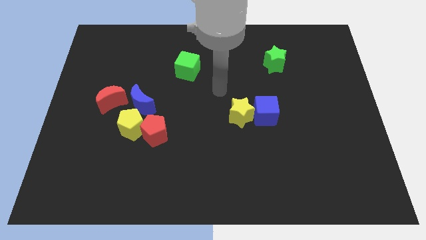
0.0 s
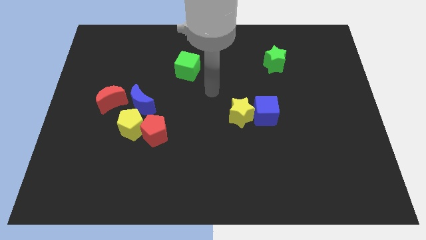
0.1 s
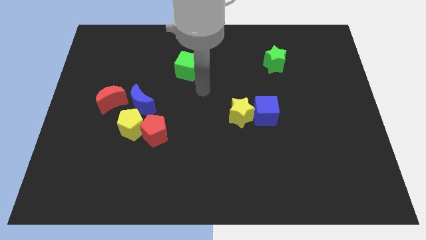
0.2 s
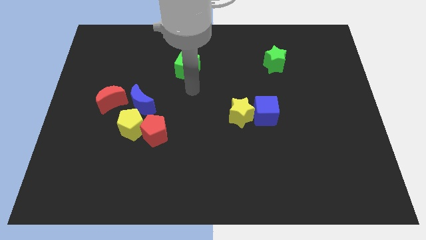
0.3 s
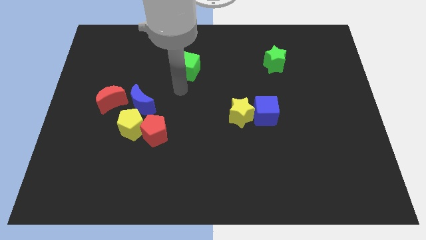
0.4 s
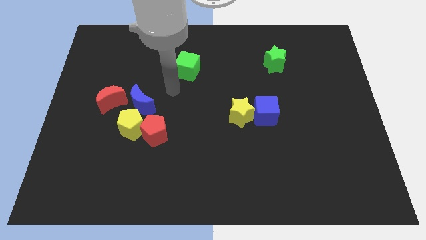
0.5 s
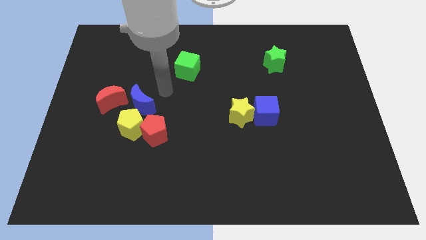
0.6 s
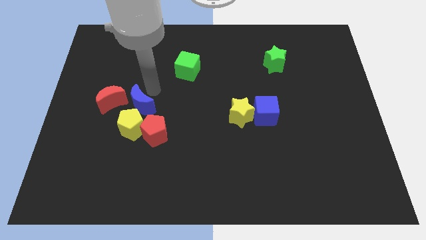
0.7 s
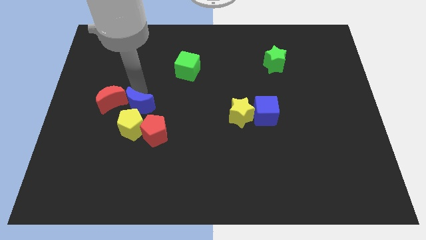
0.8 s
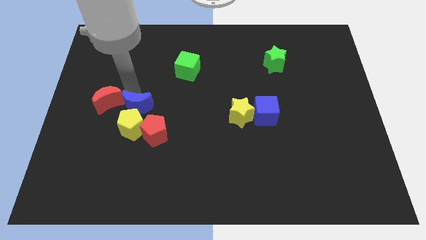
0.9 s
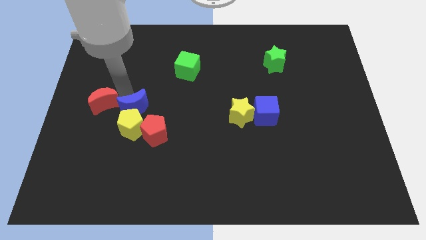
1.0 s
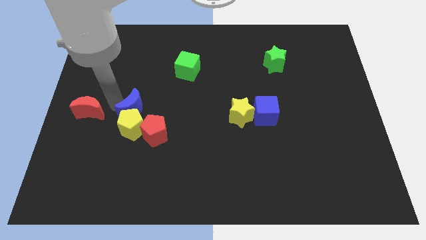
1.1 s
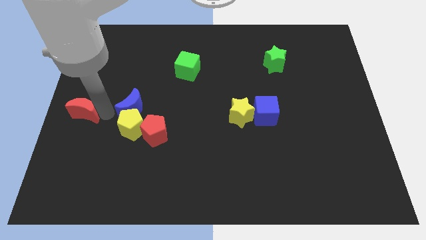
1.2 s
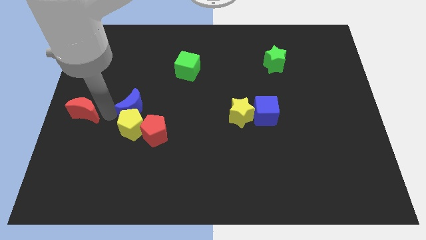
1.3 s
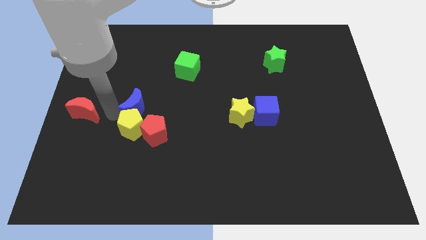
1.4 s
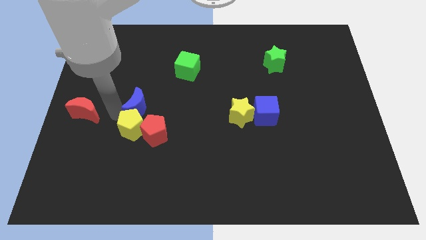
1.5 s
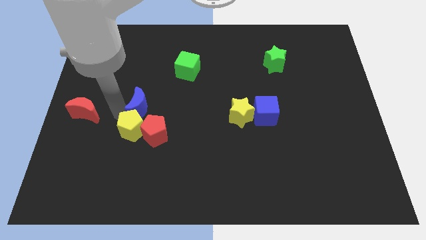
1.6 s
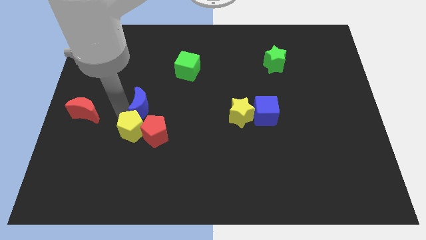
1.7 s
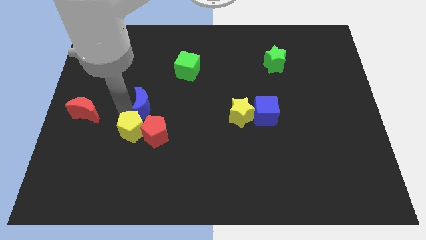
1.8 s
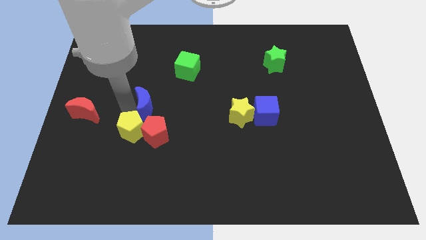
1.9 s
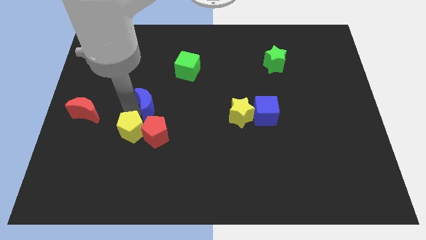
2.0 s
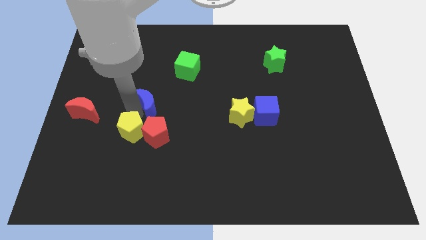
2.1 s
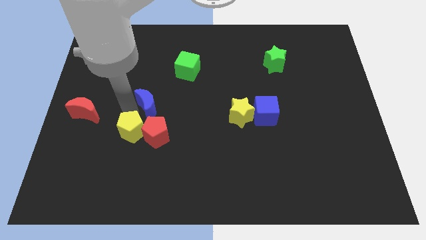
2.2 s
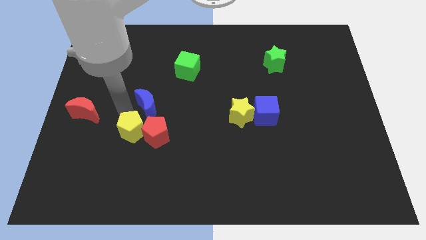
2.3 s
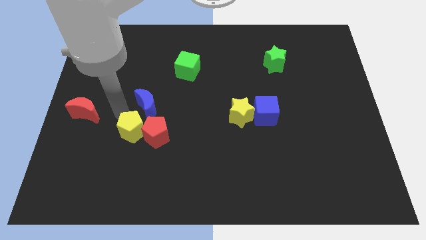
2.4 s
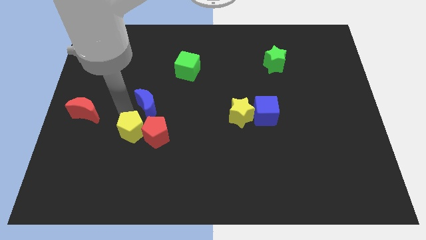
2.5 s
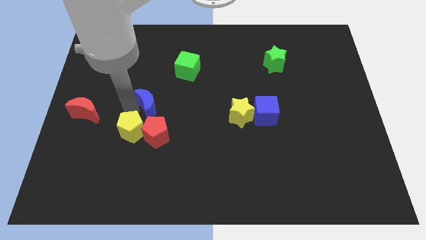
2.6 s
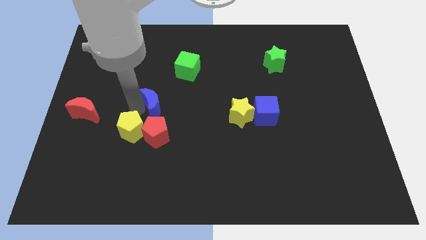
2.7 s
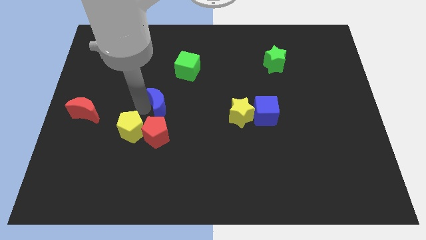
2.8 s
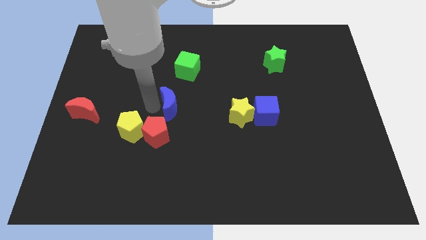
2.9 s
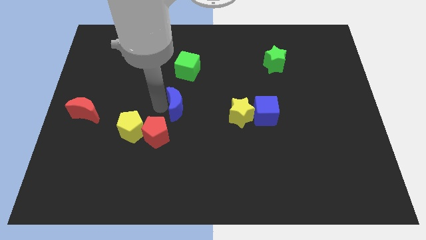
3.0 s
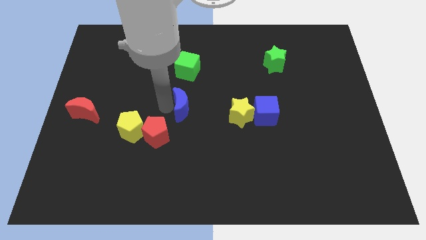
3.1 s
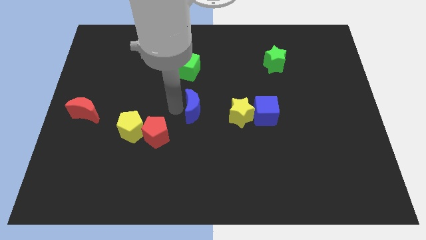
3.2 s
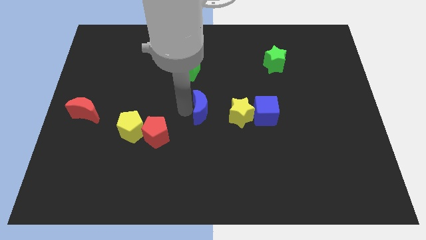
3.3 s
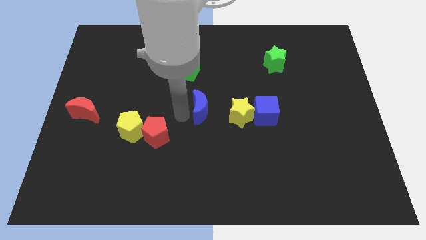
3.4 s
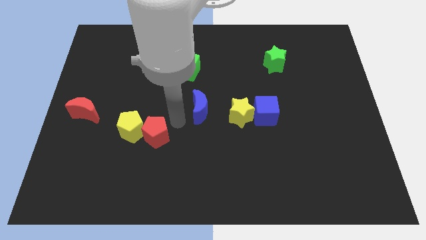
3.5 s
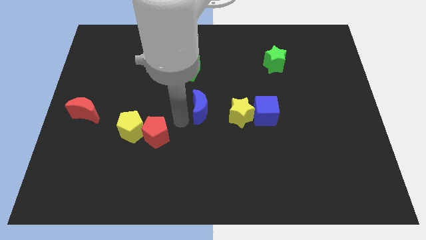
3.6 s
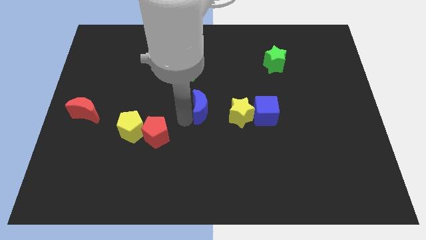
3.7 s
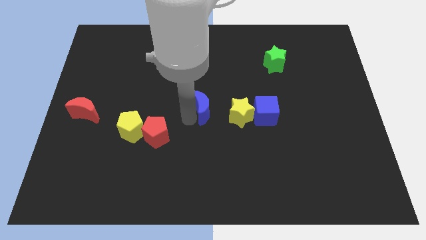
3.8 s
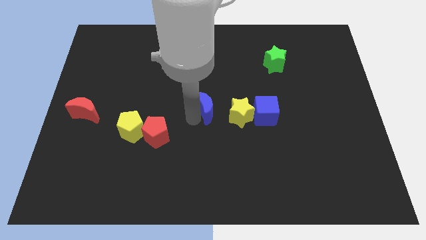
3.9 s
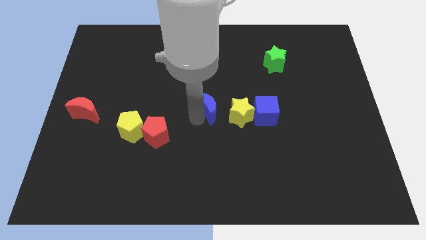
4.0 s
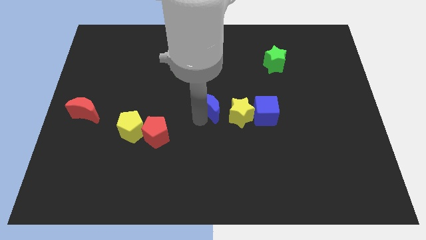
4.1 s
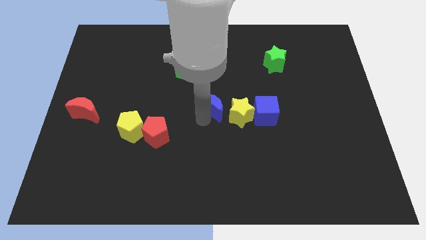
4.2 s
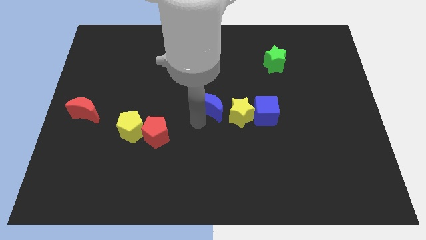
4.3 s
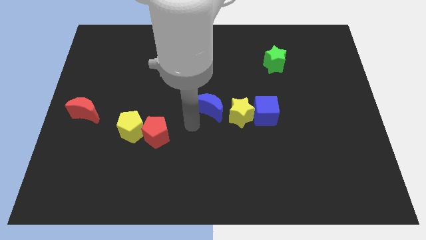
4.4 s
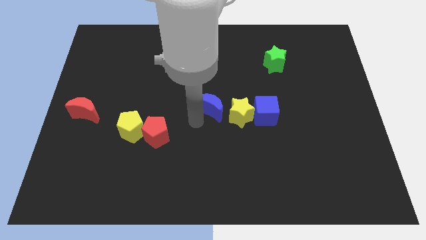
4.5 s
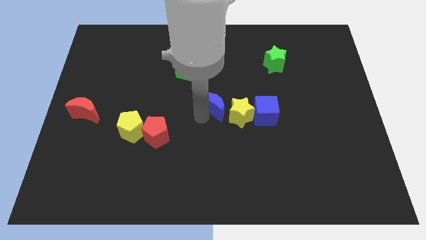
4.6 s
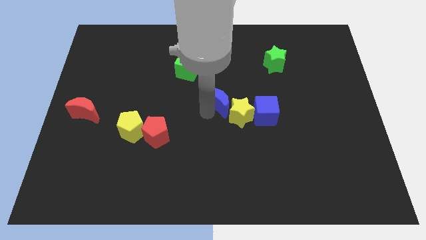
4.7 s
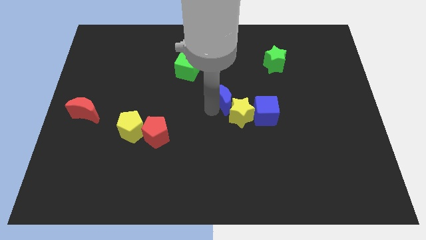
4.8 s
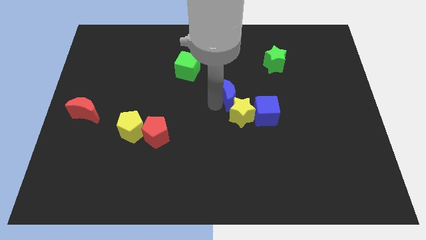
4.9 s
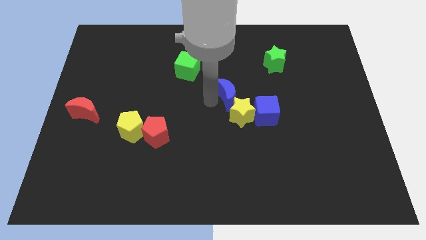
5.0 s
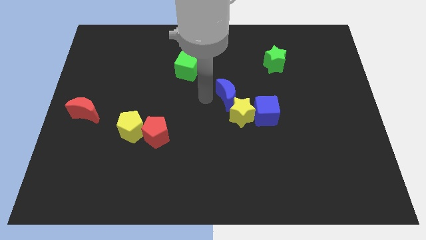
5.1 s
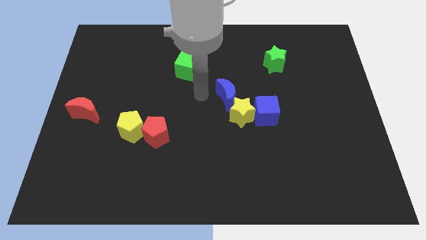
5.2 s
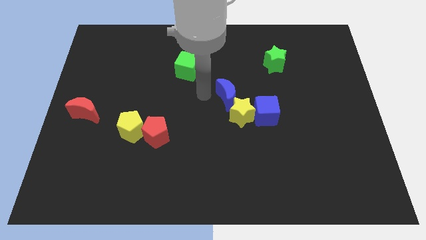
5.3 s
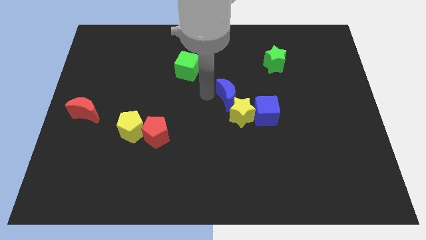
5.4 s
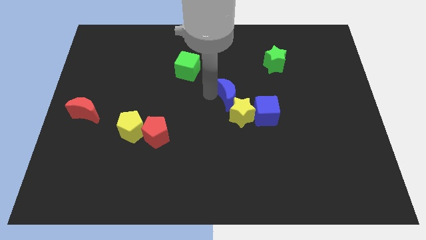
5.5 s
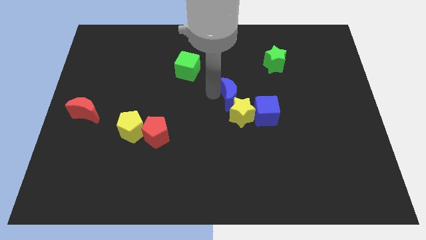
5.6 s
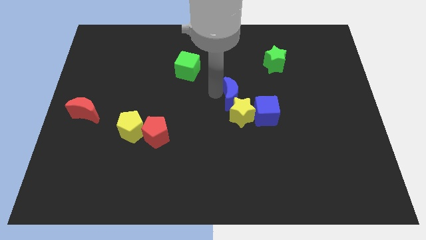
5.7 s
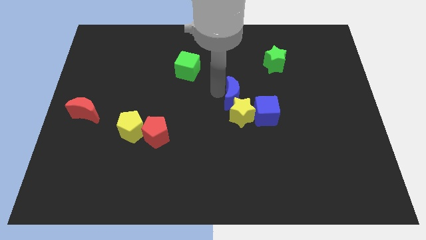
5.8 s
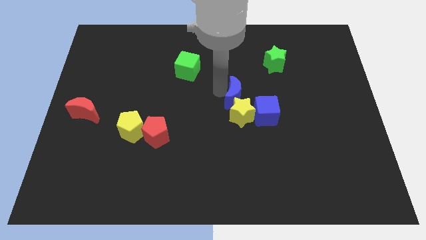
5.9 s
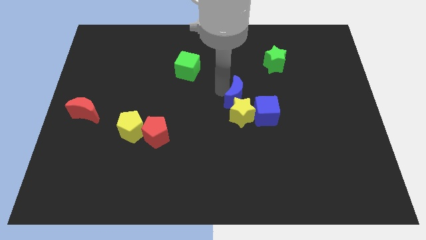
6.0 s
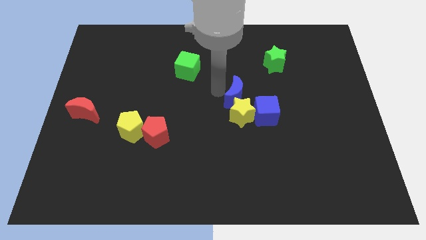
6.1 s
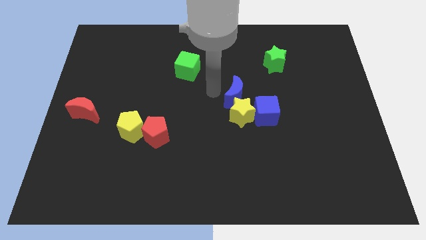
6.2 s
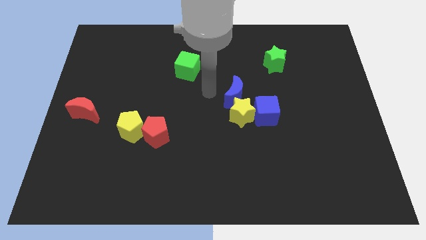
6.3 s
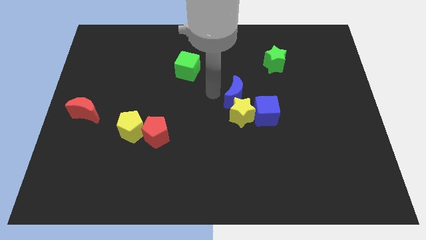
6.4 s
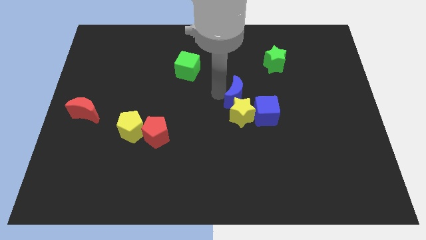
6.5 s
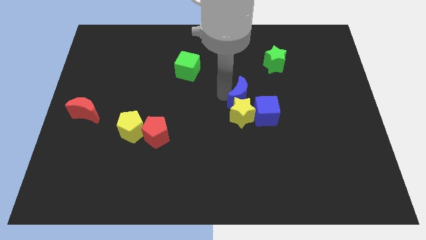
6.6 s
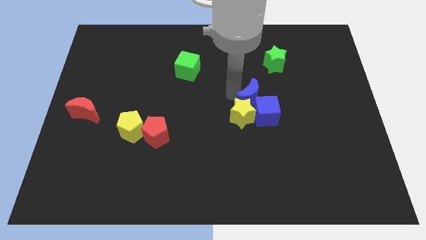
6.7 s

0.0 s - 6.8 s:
put the blue moon towards the blue cube
